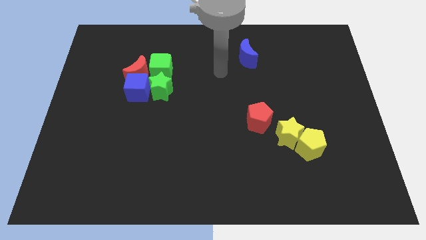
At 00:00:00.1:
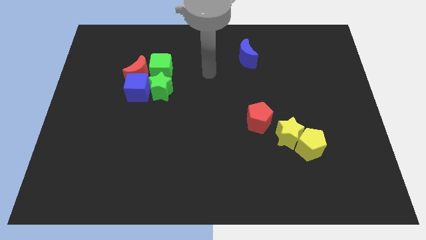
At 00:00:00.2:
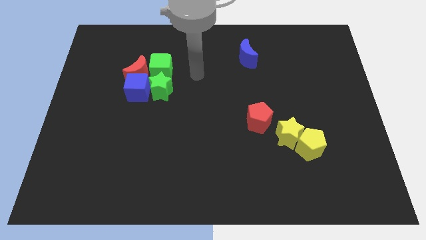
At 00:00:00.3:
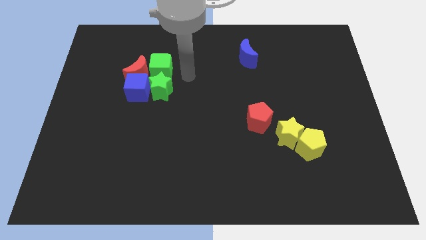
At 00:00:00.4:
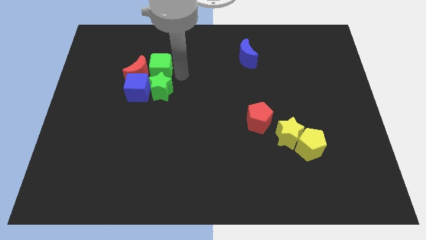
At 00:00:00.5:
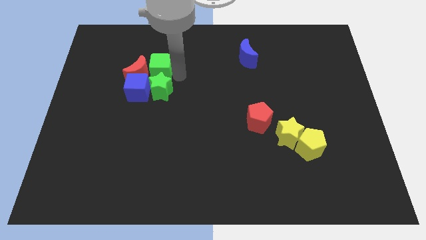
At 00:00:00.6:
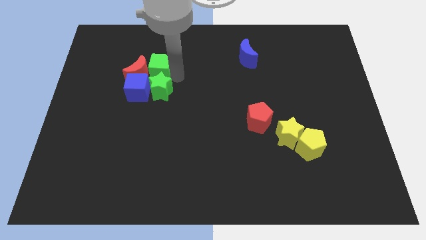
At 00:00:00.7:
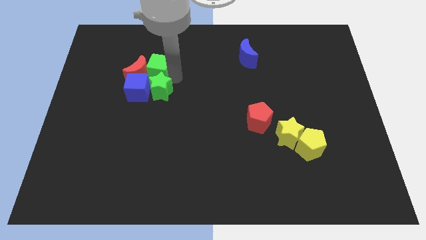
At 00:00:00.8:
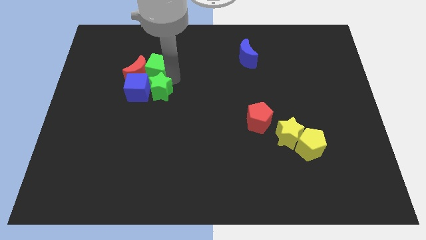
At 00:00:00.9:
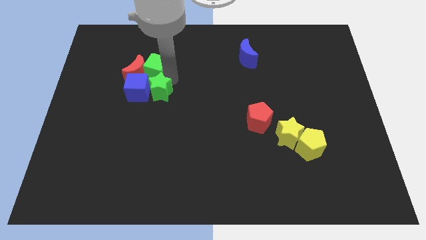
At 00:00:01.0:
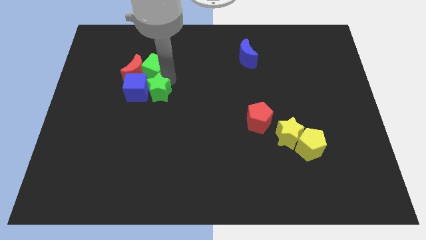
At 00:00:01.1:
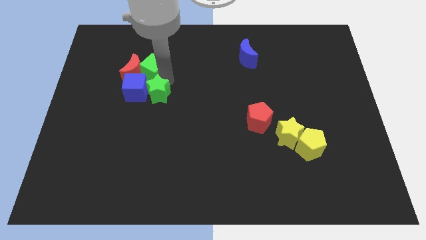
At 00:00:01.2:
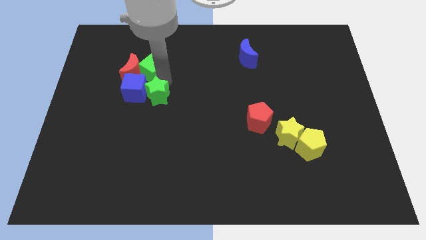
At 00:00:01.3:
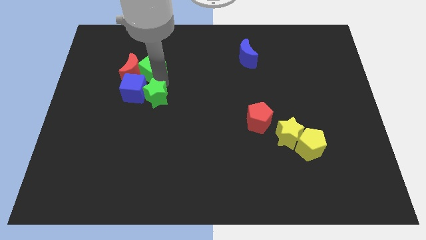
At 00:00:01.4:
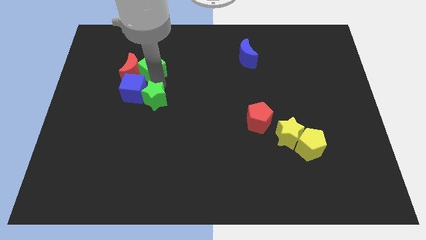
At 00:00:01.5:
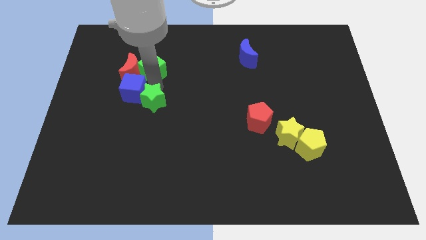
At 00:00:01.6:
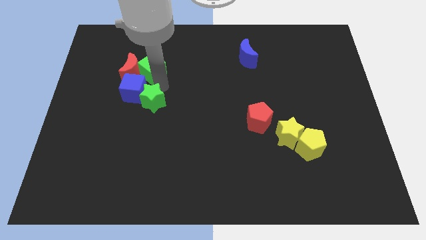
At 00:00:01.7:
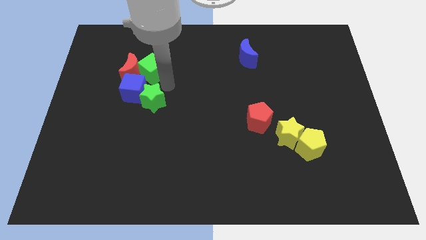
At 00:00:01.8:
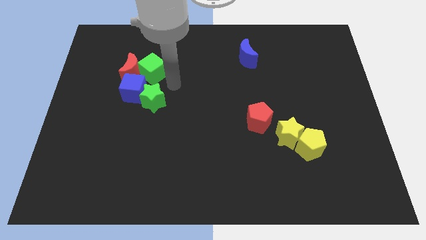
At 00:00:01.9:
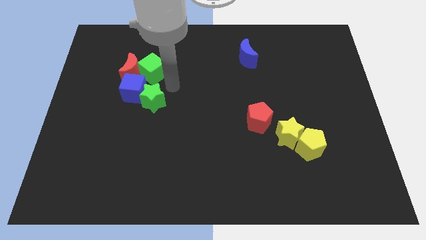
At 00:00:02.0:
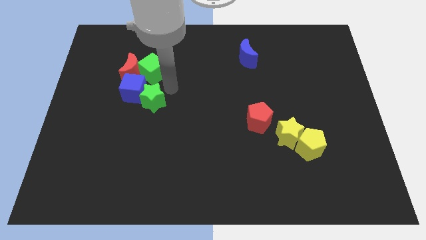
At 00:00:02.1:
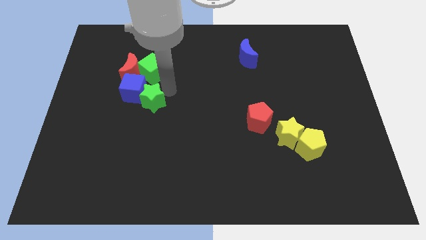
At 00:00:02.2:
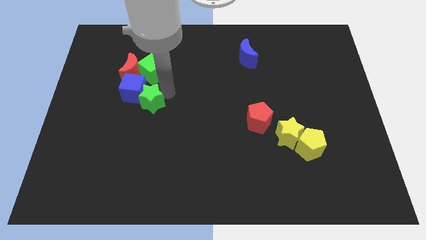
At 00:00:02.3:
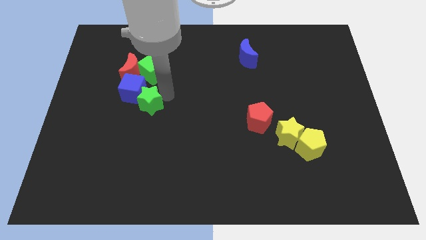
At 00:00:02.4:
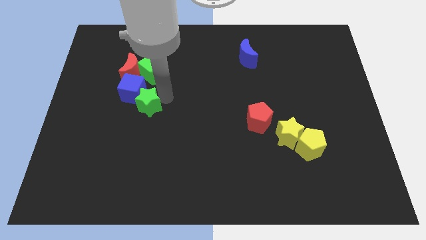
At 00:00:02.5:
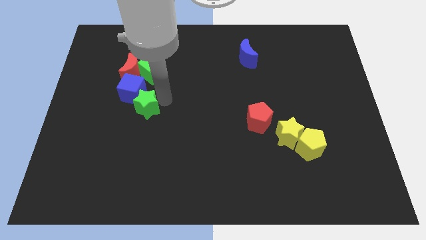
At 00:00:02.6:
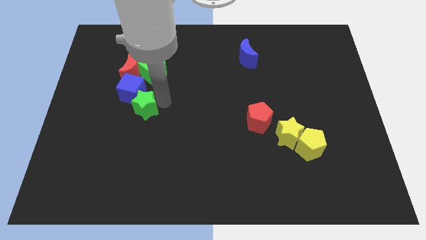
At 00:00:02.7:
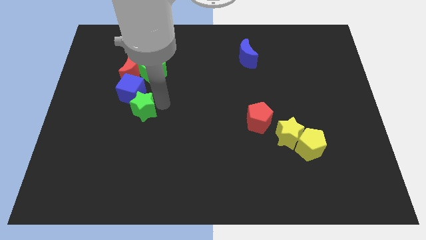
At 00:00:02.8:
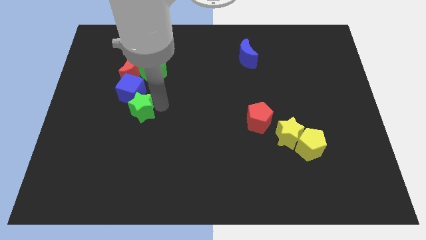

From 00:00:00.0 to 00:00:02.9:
move the green star somewhat downwards and then left

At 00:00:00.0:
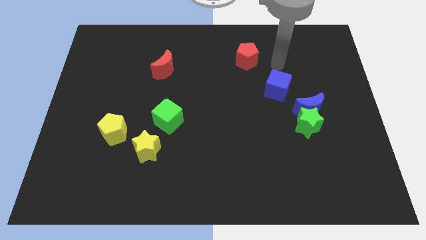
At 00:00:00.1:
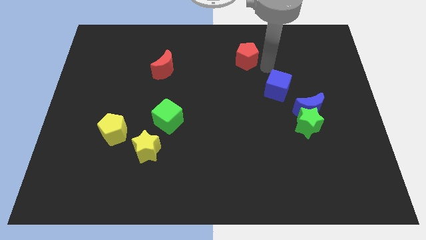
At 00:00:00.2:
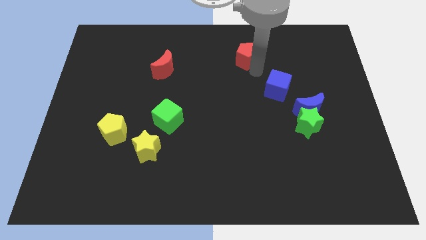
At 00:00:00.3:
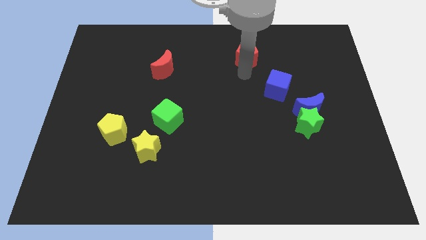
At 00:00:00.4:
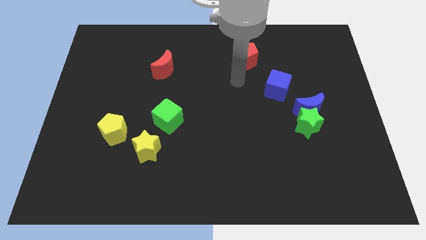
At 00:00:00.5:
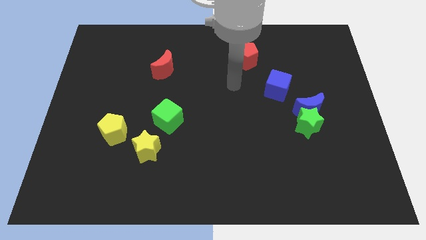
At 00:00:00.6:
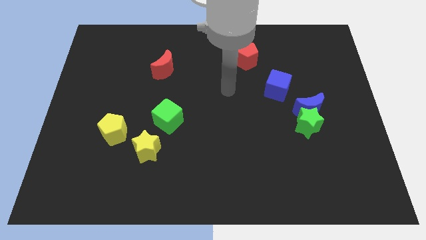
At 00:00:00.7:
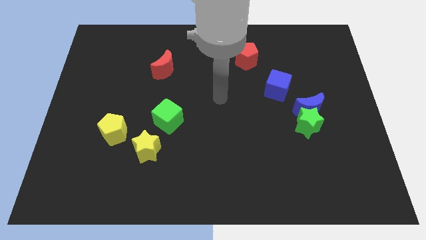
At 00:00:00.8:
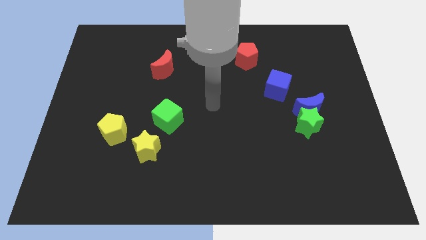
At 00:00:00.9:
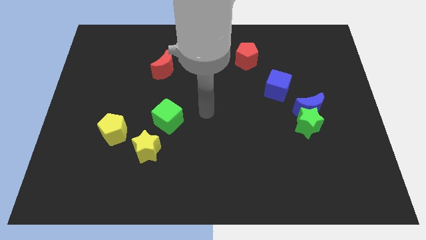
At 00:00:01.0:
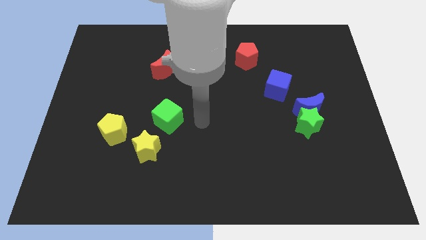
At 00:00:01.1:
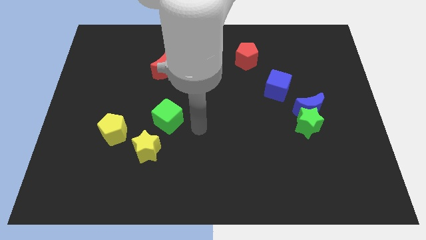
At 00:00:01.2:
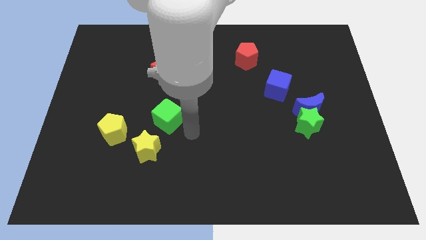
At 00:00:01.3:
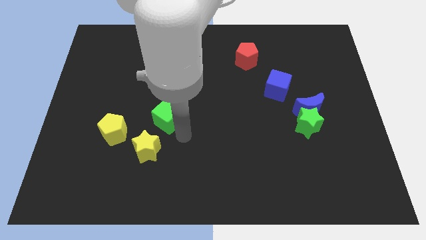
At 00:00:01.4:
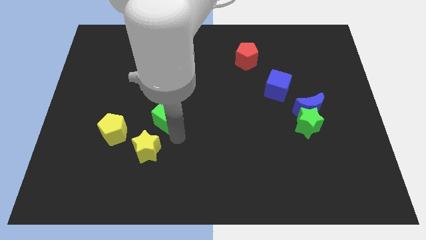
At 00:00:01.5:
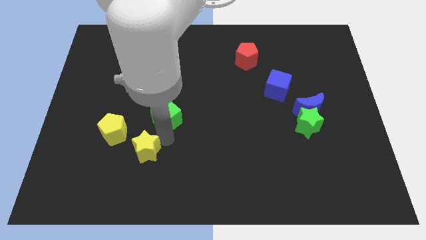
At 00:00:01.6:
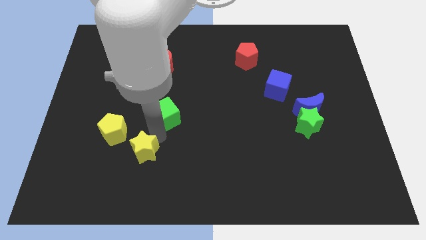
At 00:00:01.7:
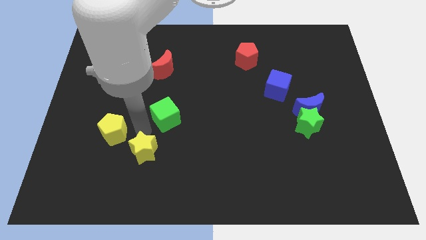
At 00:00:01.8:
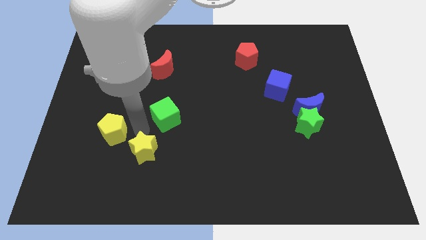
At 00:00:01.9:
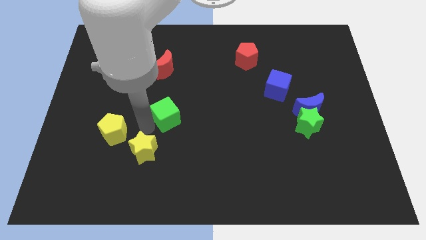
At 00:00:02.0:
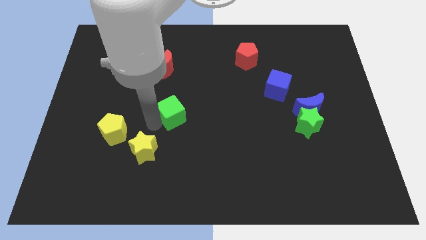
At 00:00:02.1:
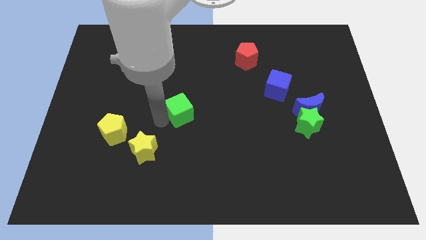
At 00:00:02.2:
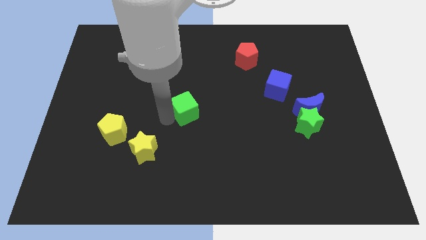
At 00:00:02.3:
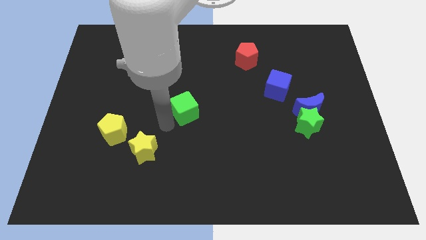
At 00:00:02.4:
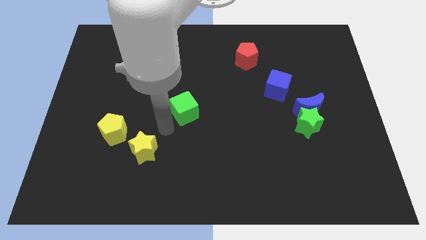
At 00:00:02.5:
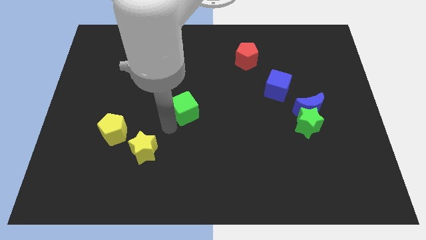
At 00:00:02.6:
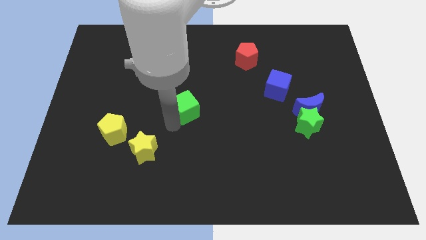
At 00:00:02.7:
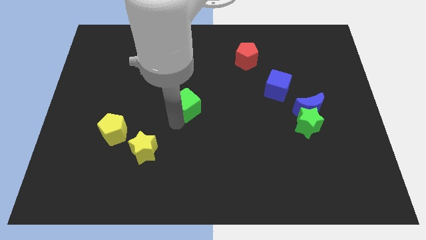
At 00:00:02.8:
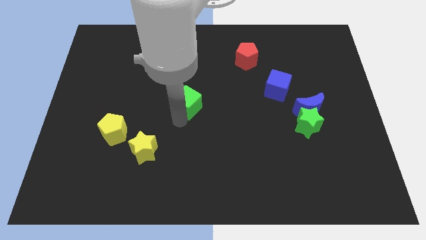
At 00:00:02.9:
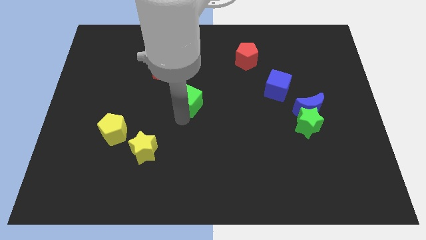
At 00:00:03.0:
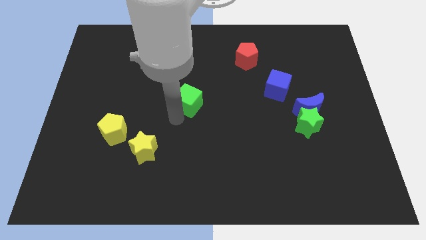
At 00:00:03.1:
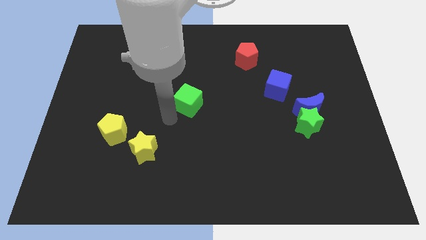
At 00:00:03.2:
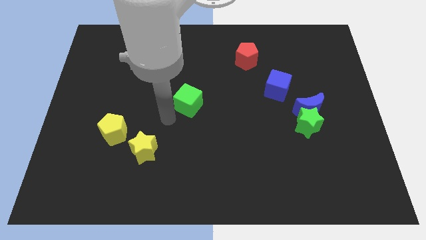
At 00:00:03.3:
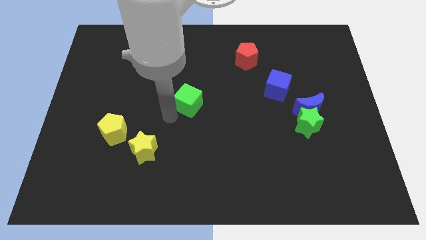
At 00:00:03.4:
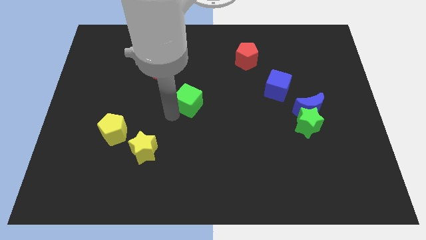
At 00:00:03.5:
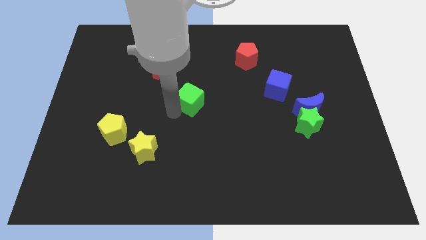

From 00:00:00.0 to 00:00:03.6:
slightly push the green cube up and to the right

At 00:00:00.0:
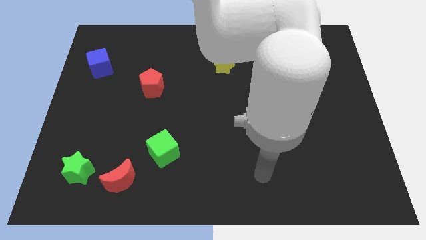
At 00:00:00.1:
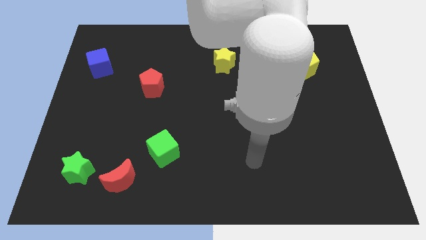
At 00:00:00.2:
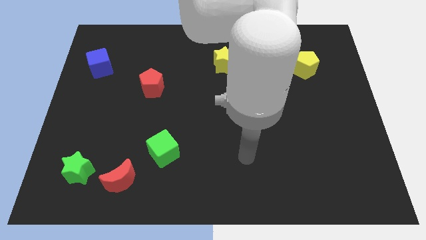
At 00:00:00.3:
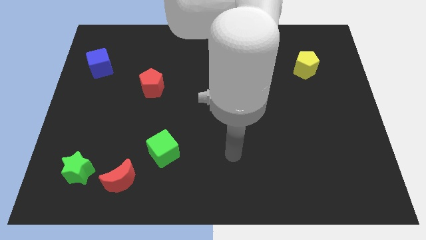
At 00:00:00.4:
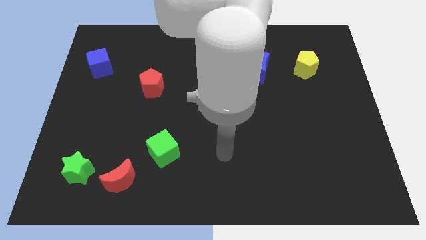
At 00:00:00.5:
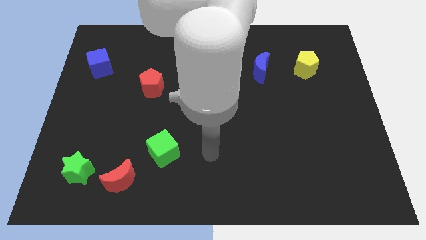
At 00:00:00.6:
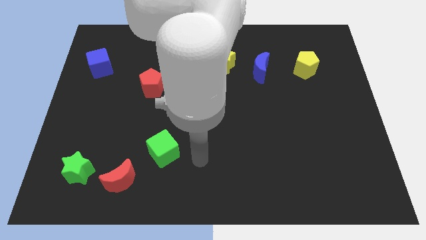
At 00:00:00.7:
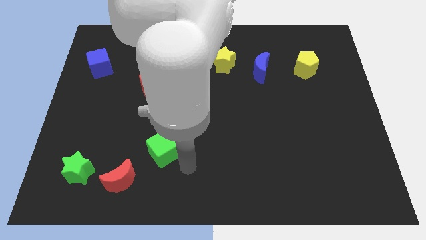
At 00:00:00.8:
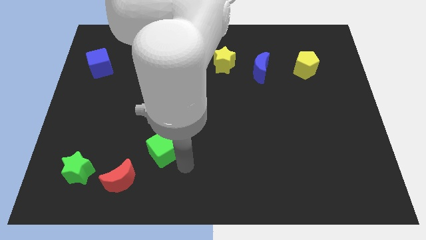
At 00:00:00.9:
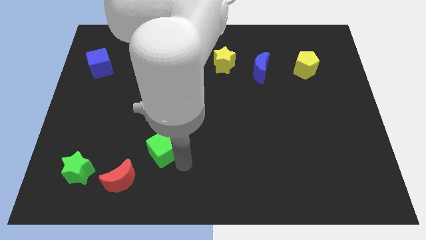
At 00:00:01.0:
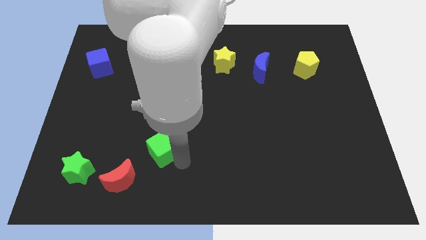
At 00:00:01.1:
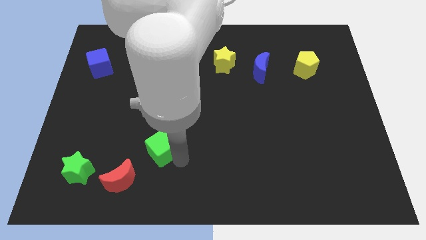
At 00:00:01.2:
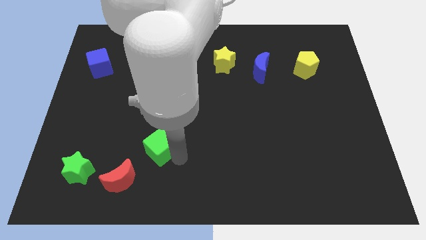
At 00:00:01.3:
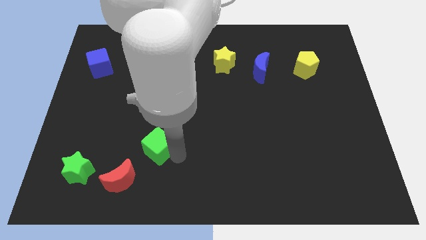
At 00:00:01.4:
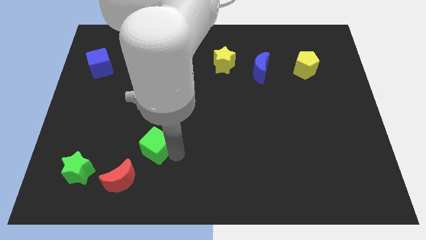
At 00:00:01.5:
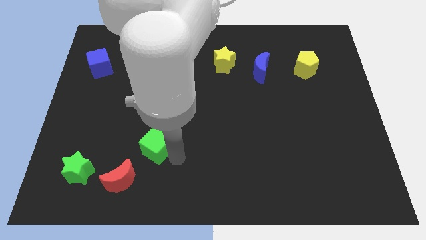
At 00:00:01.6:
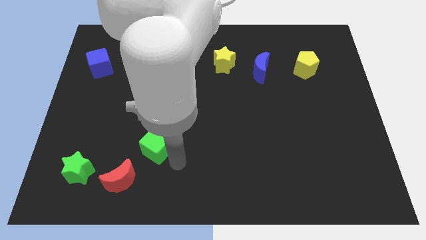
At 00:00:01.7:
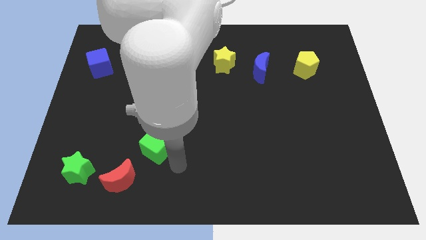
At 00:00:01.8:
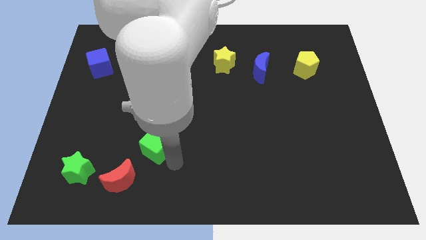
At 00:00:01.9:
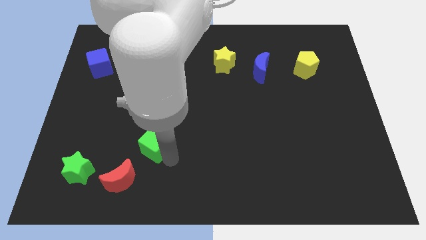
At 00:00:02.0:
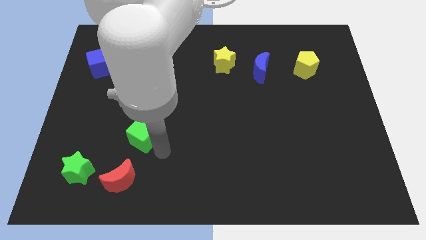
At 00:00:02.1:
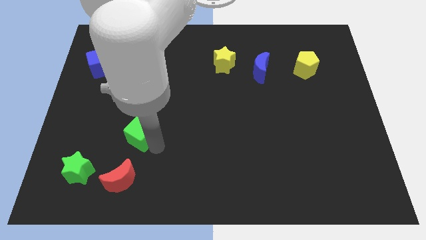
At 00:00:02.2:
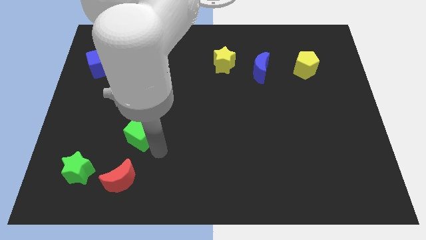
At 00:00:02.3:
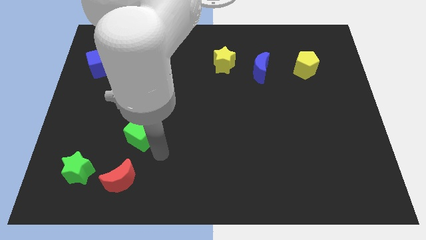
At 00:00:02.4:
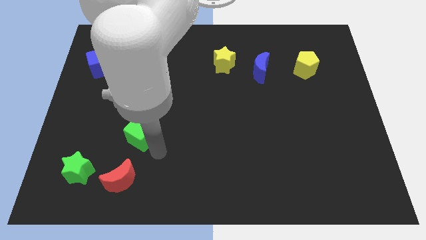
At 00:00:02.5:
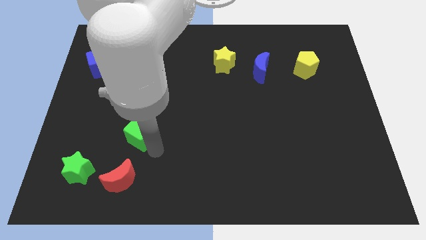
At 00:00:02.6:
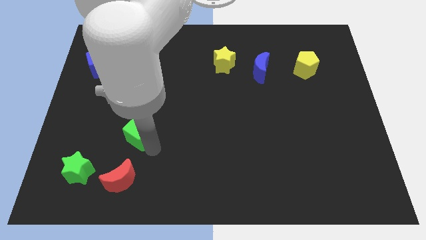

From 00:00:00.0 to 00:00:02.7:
slide the green cube upwards and left diagonally a bit
